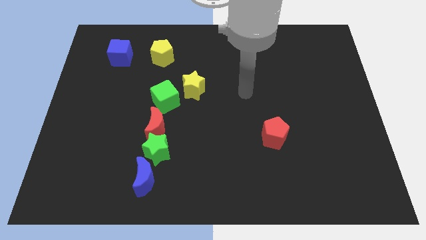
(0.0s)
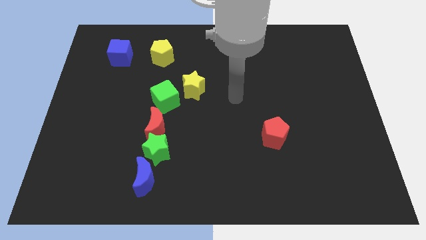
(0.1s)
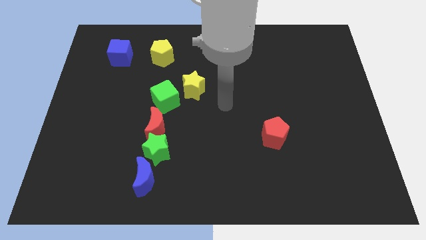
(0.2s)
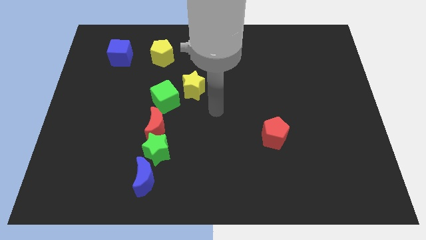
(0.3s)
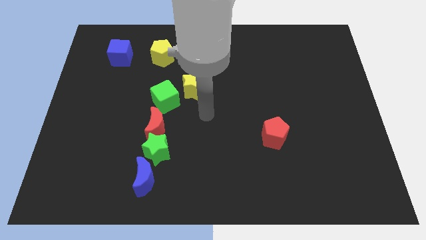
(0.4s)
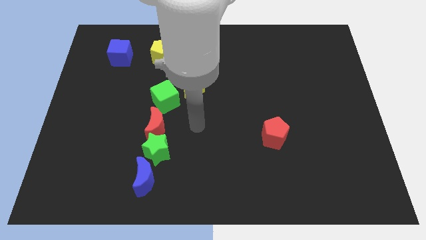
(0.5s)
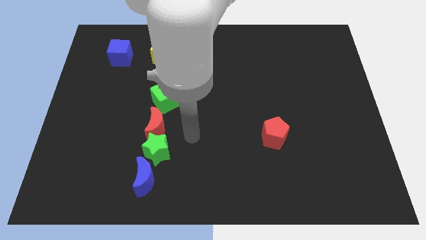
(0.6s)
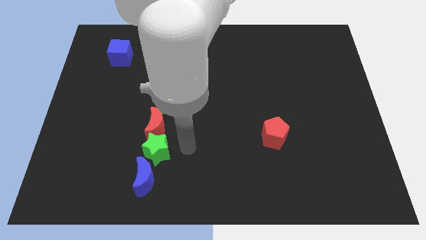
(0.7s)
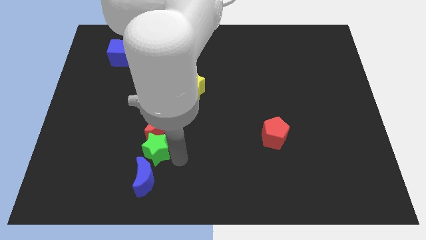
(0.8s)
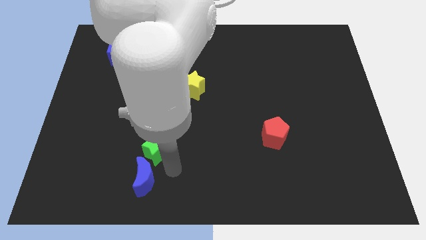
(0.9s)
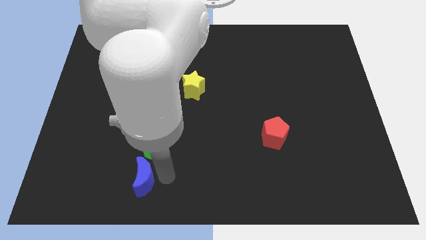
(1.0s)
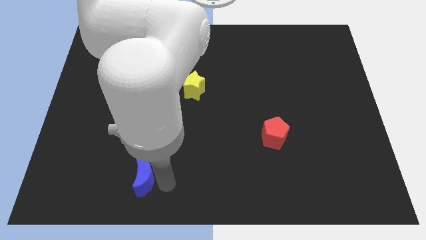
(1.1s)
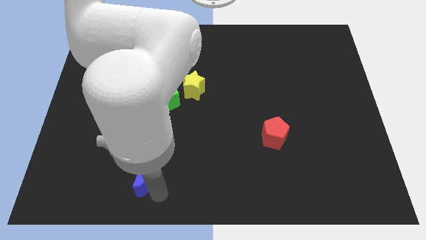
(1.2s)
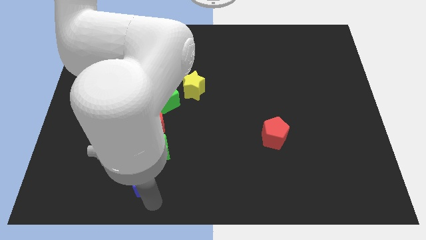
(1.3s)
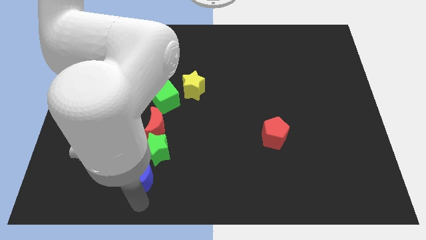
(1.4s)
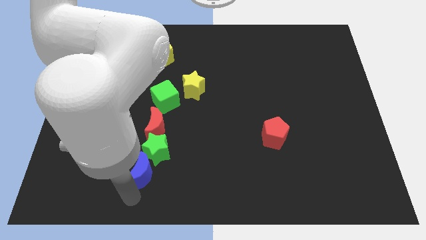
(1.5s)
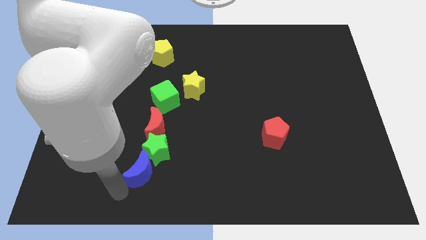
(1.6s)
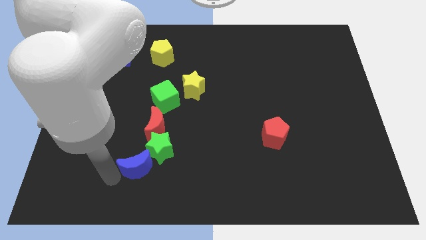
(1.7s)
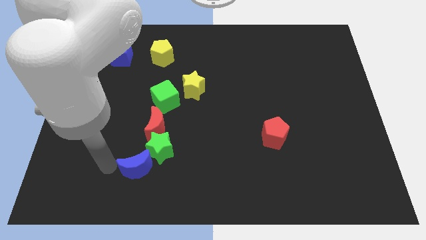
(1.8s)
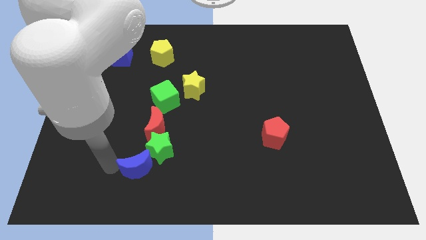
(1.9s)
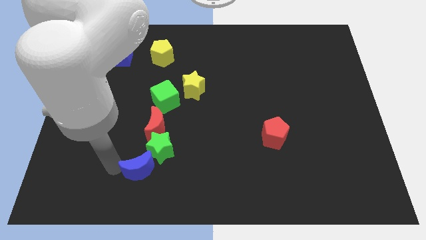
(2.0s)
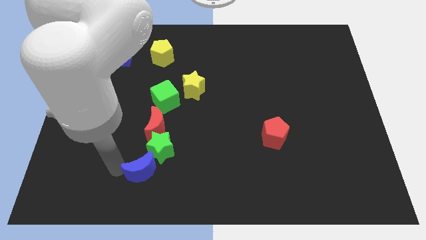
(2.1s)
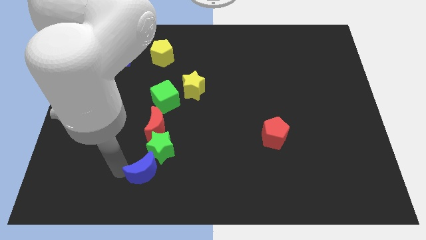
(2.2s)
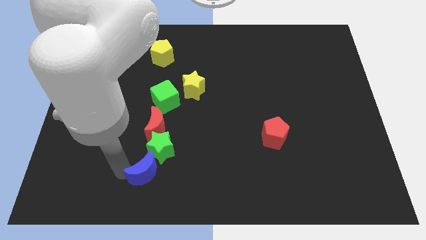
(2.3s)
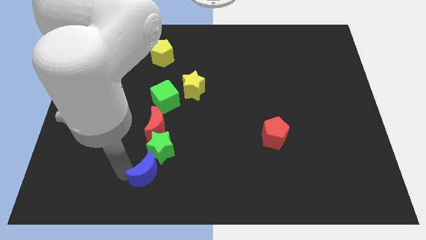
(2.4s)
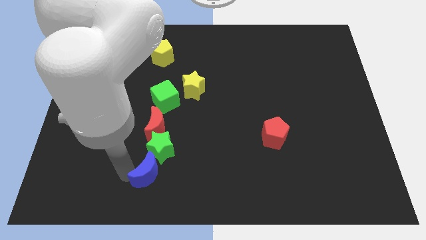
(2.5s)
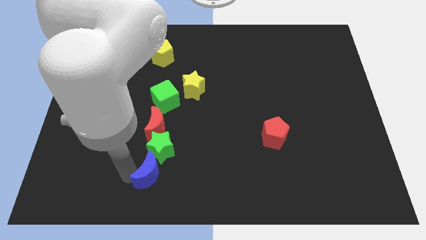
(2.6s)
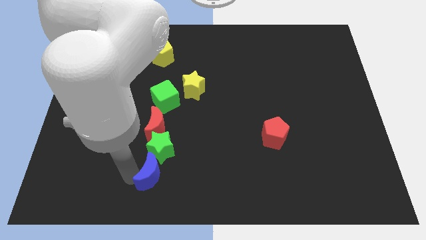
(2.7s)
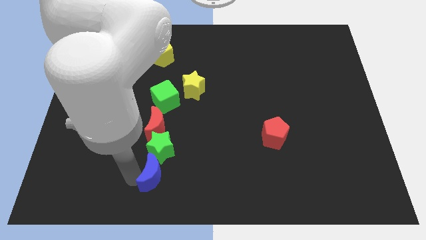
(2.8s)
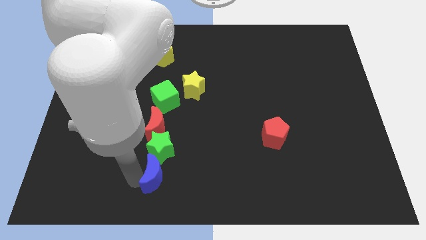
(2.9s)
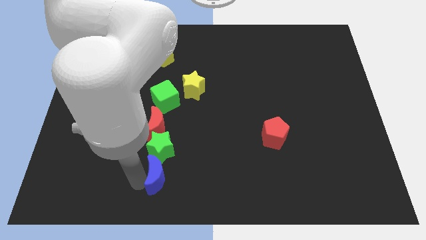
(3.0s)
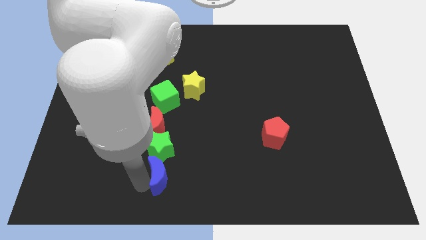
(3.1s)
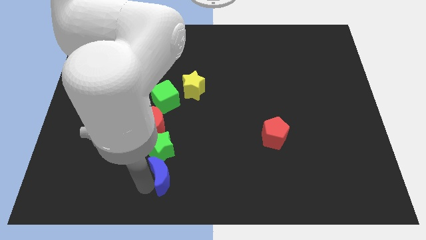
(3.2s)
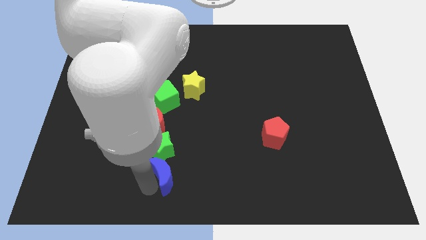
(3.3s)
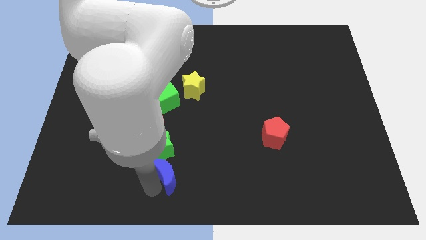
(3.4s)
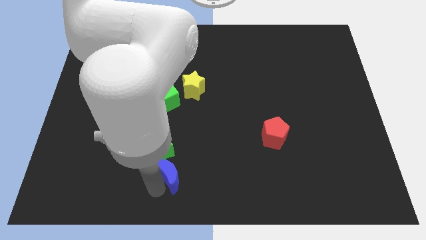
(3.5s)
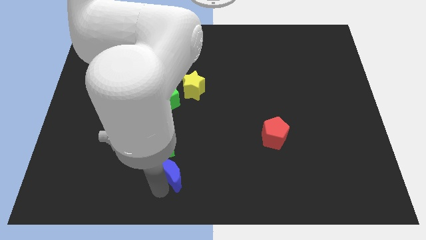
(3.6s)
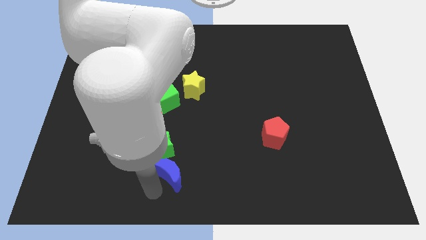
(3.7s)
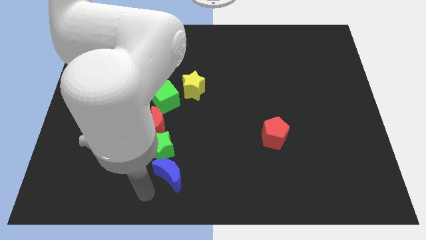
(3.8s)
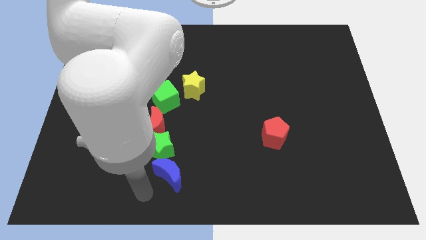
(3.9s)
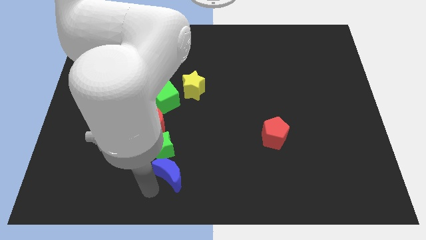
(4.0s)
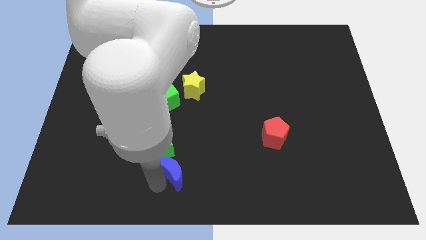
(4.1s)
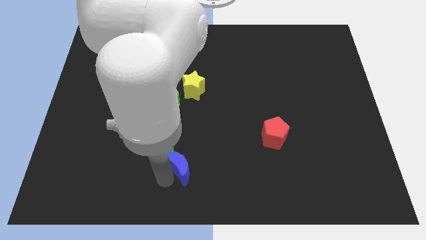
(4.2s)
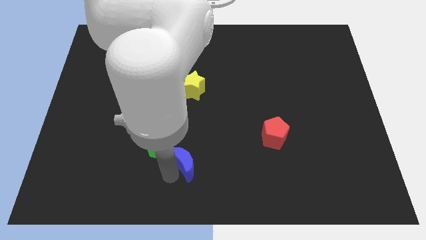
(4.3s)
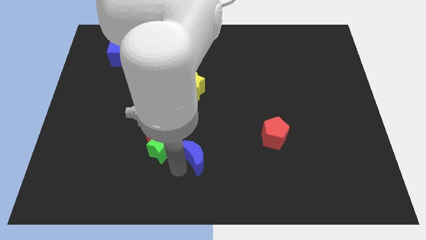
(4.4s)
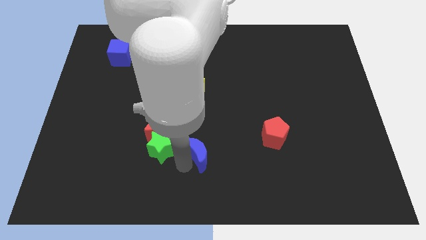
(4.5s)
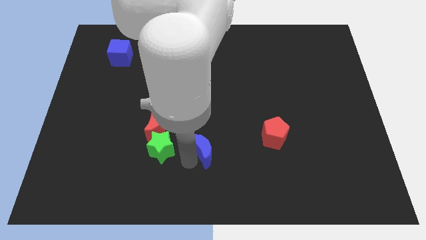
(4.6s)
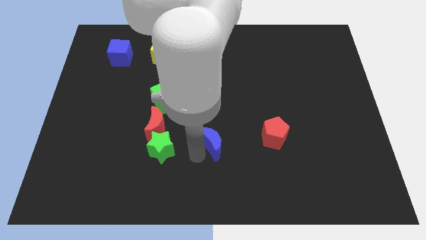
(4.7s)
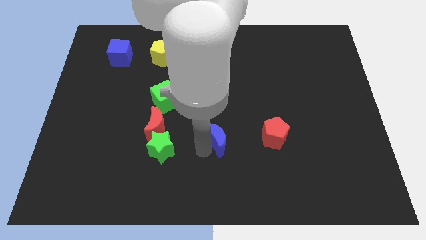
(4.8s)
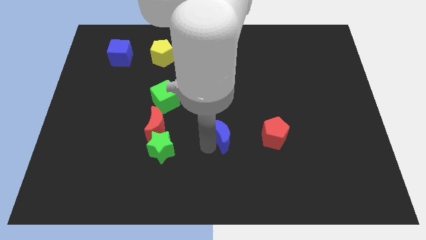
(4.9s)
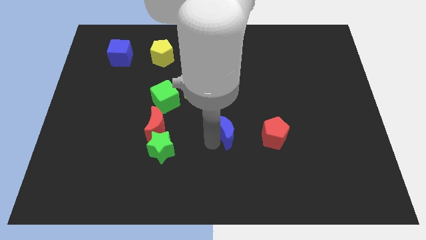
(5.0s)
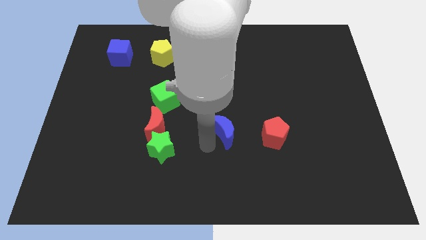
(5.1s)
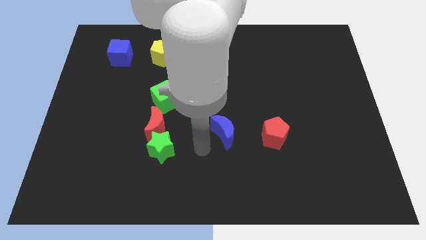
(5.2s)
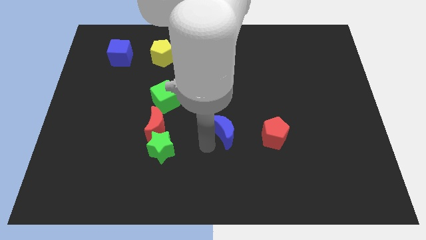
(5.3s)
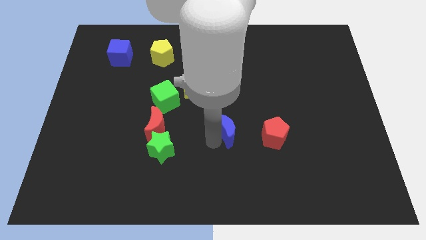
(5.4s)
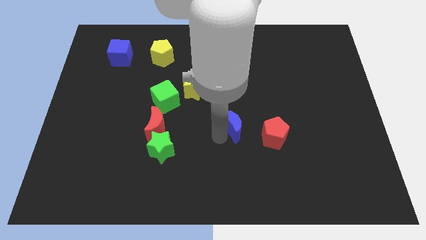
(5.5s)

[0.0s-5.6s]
move the blue moon to the top left side of the red pentagon

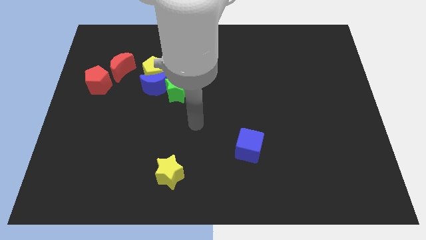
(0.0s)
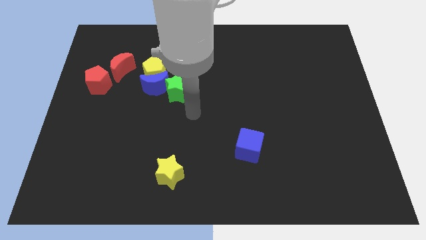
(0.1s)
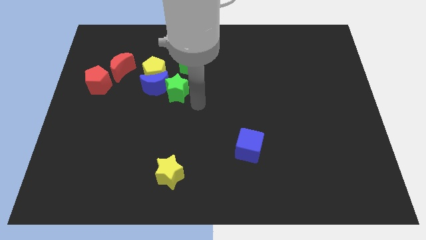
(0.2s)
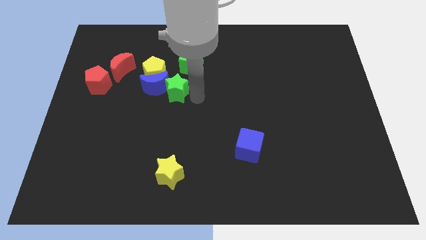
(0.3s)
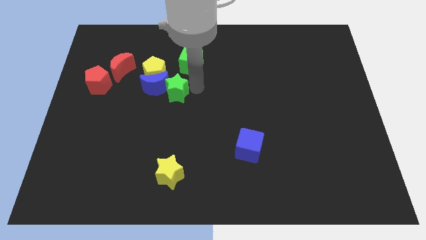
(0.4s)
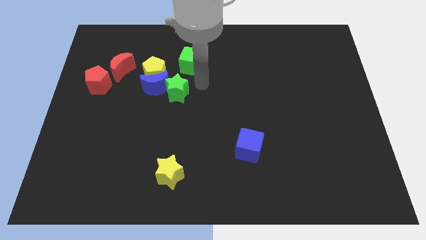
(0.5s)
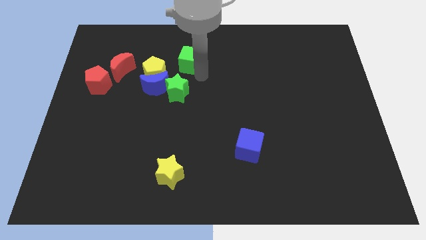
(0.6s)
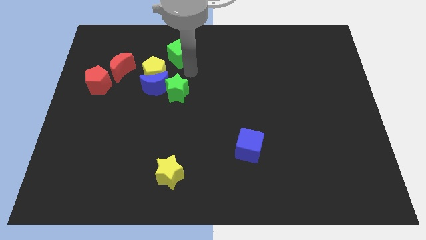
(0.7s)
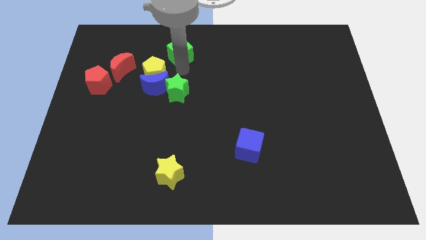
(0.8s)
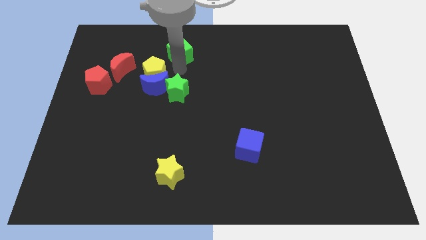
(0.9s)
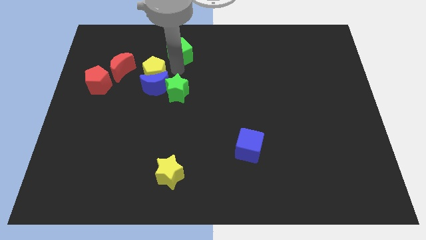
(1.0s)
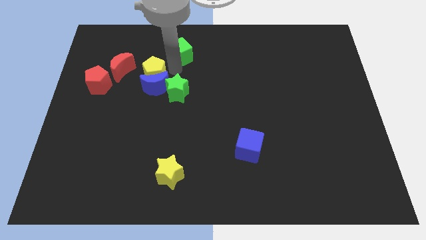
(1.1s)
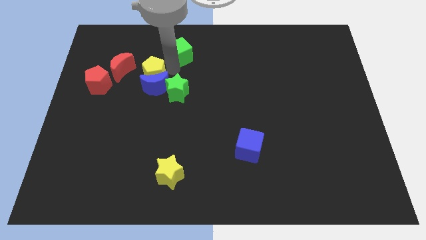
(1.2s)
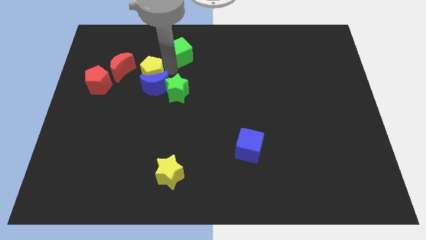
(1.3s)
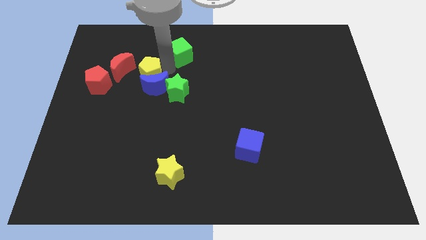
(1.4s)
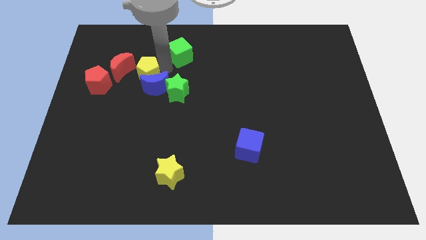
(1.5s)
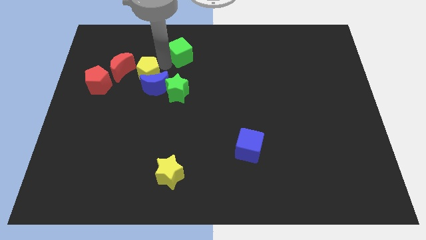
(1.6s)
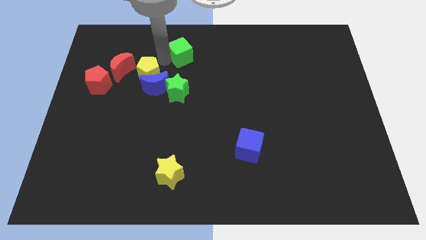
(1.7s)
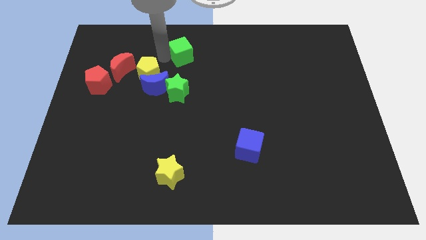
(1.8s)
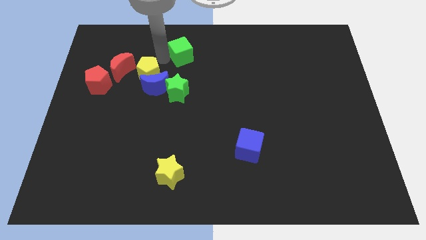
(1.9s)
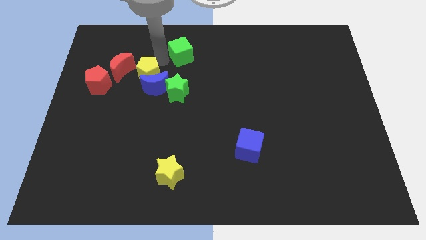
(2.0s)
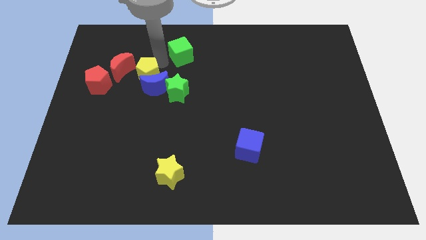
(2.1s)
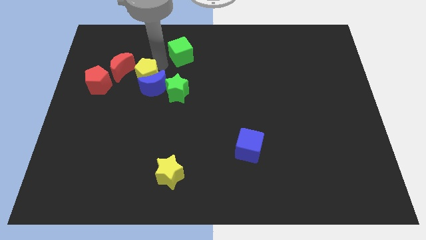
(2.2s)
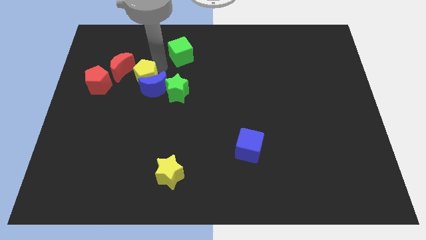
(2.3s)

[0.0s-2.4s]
move the yellow pentagon to the left of the green star

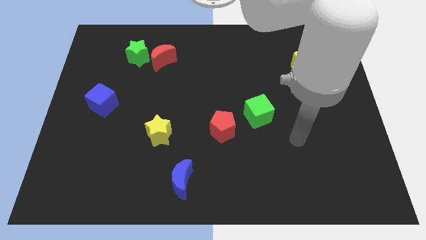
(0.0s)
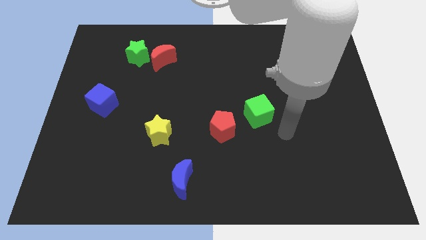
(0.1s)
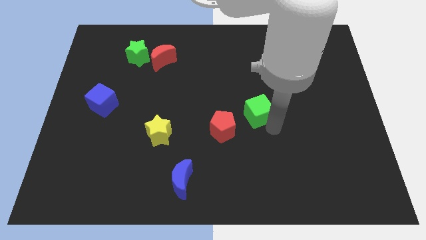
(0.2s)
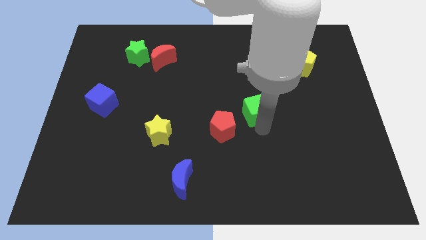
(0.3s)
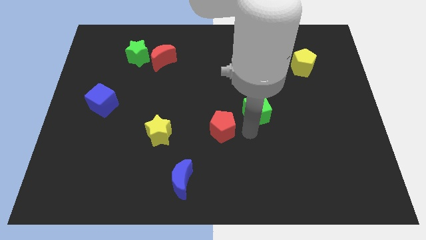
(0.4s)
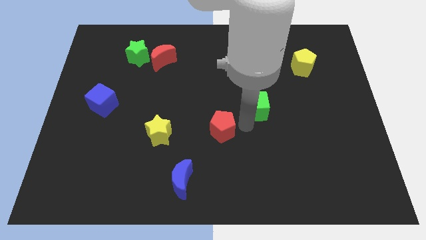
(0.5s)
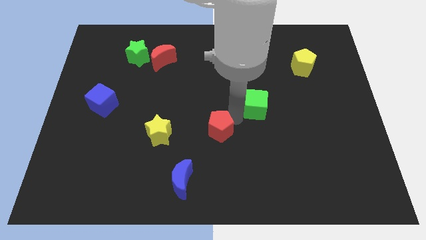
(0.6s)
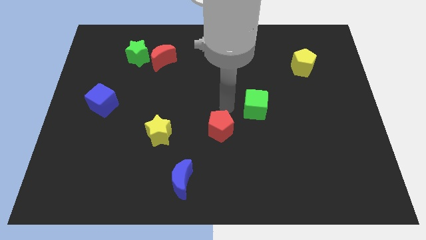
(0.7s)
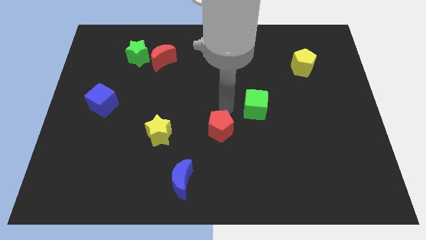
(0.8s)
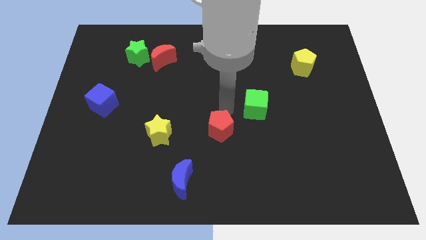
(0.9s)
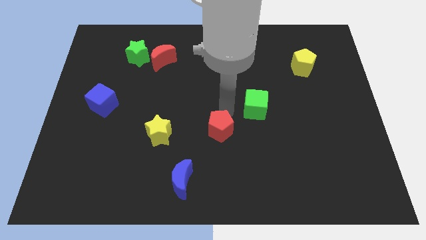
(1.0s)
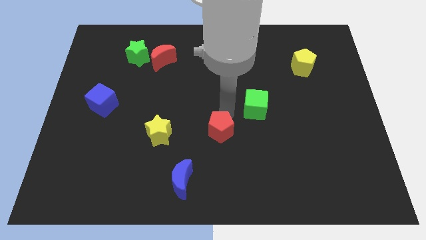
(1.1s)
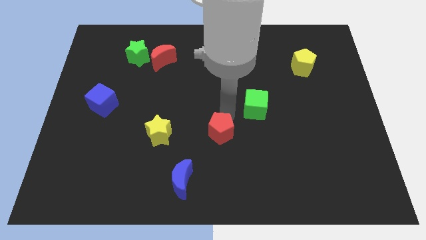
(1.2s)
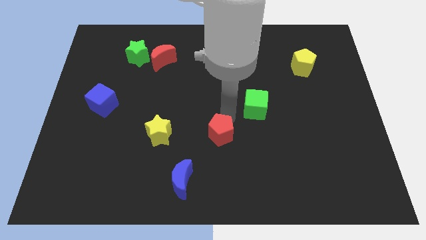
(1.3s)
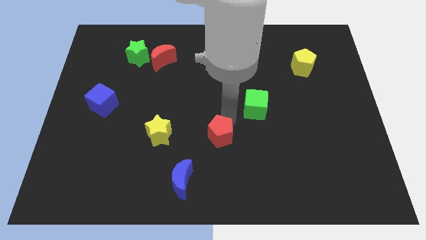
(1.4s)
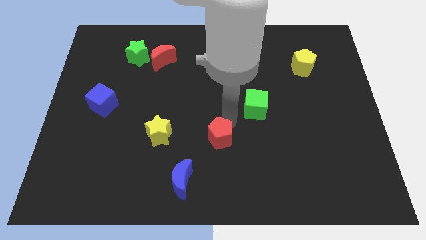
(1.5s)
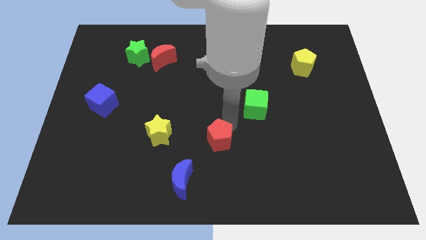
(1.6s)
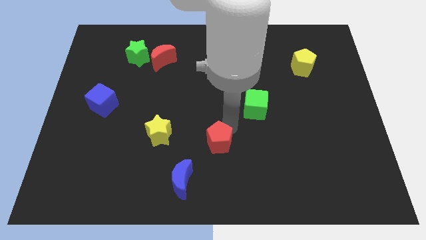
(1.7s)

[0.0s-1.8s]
slide the red pentagon to the top right side of the blue moon
